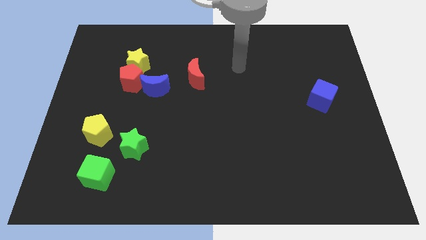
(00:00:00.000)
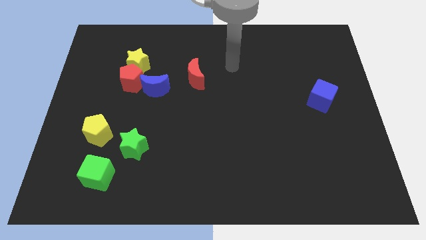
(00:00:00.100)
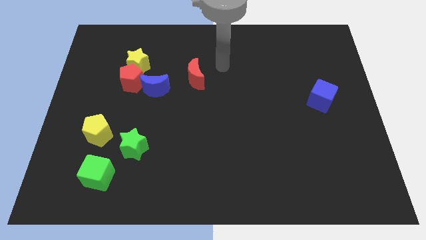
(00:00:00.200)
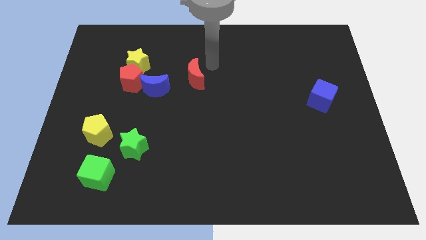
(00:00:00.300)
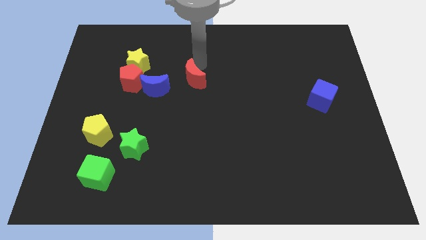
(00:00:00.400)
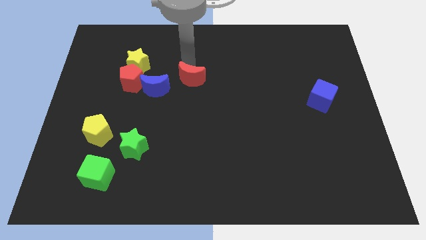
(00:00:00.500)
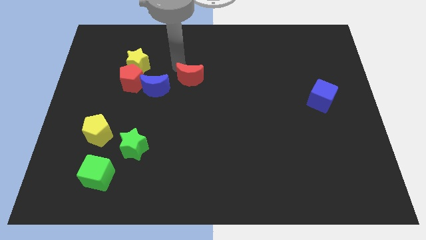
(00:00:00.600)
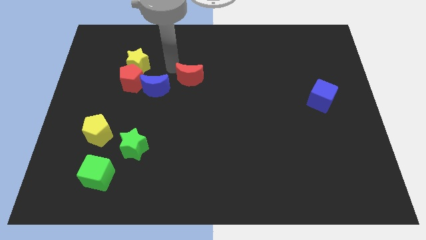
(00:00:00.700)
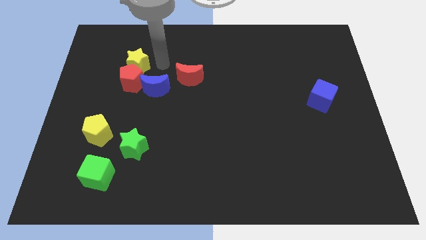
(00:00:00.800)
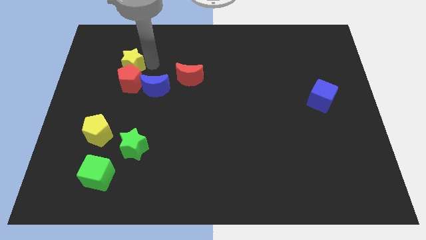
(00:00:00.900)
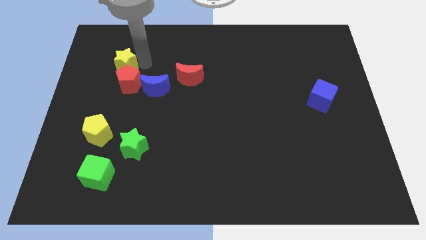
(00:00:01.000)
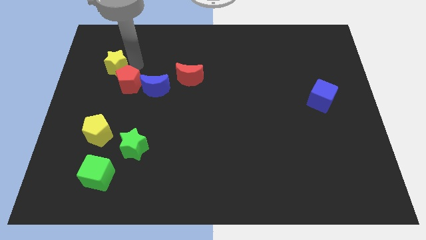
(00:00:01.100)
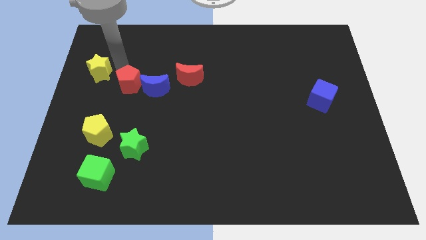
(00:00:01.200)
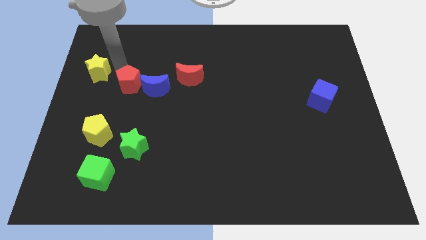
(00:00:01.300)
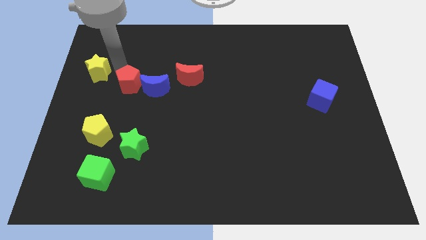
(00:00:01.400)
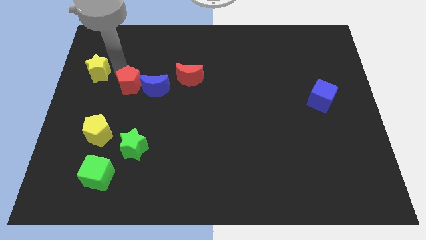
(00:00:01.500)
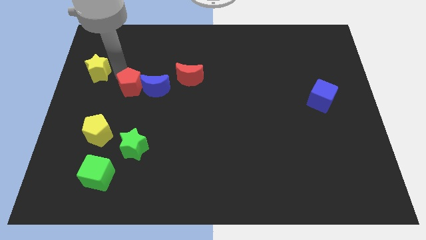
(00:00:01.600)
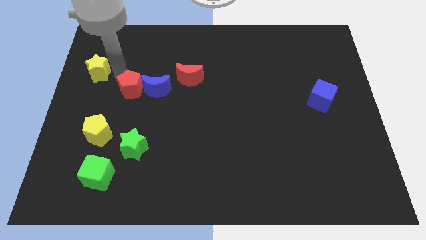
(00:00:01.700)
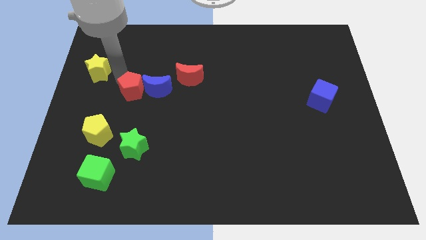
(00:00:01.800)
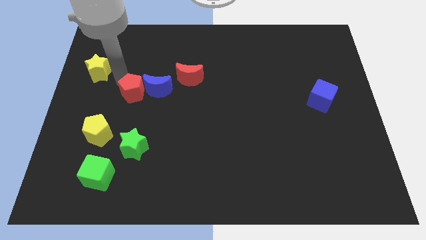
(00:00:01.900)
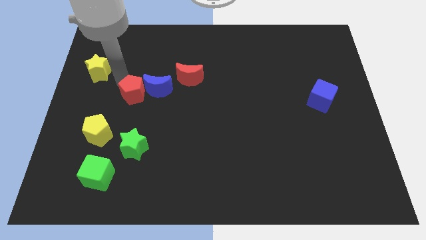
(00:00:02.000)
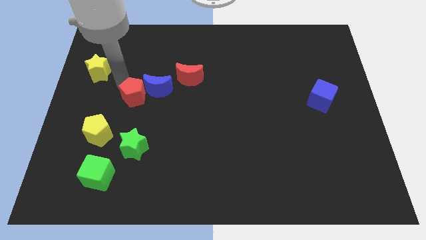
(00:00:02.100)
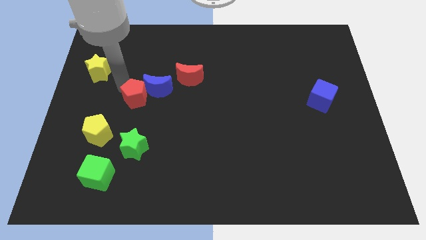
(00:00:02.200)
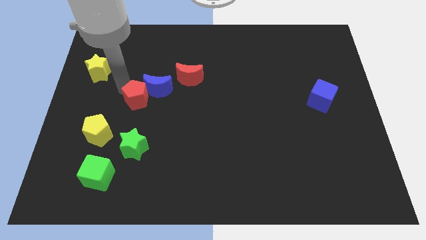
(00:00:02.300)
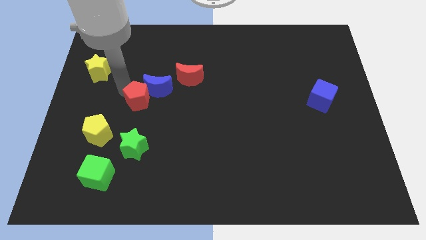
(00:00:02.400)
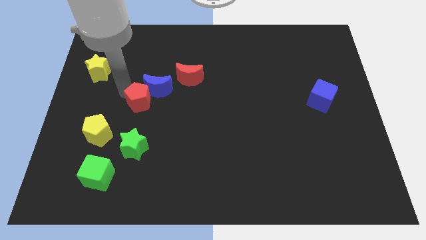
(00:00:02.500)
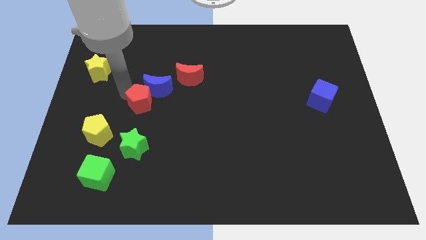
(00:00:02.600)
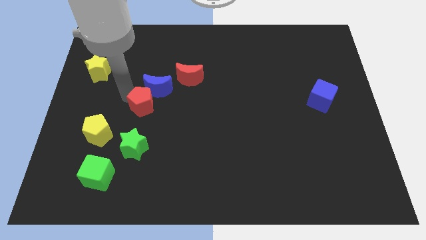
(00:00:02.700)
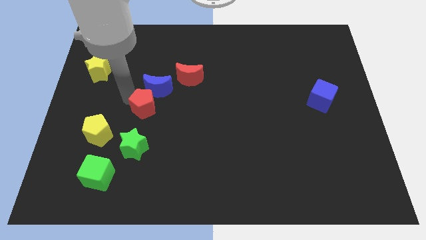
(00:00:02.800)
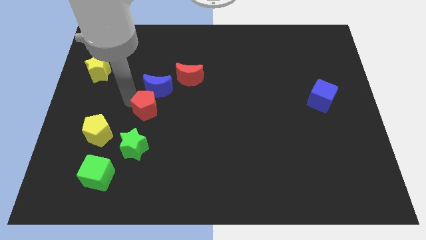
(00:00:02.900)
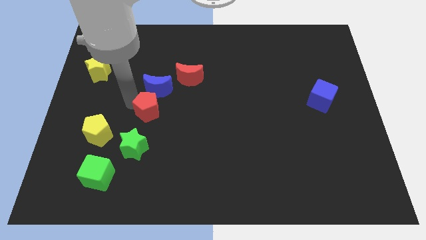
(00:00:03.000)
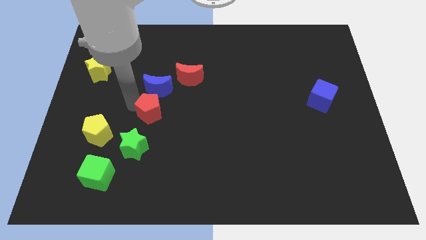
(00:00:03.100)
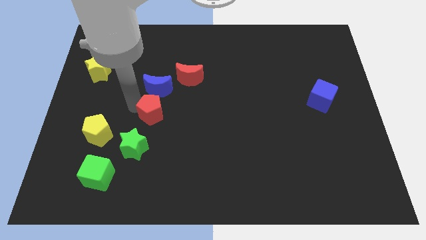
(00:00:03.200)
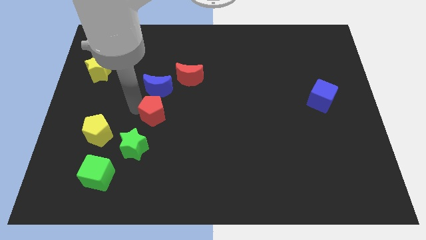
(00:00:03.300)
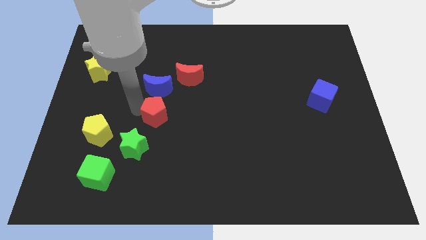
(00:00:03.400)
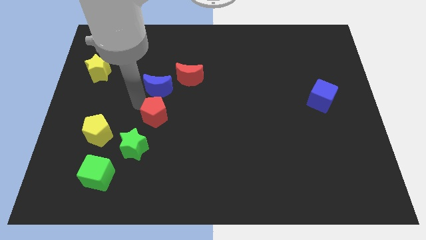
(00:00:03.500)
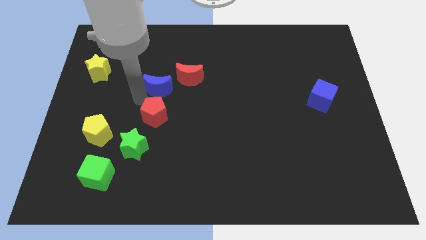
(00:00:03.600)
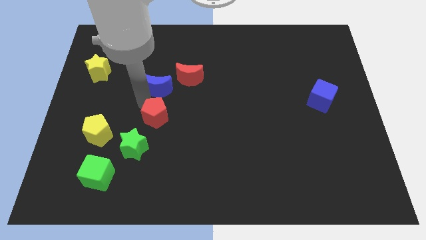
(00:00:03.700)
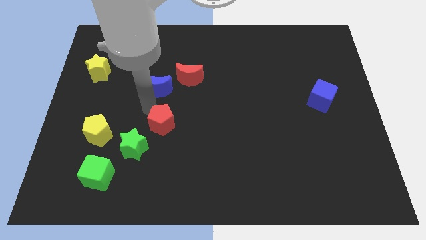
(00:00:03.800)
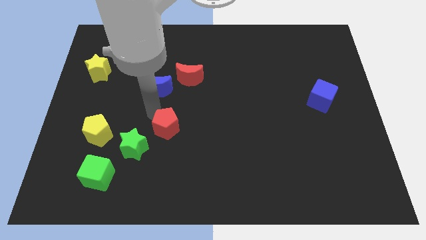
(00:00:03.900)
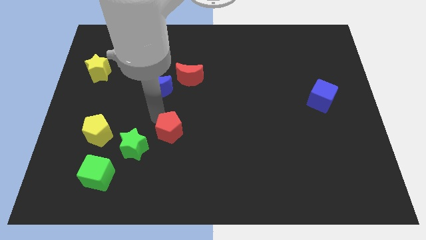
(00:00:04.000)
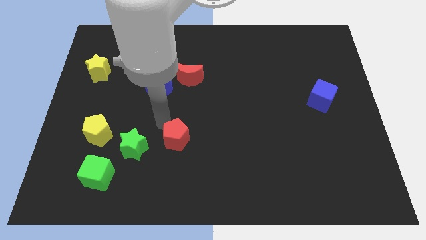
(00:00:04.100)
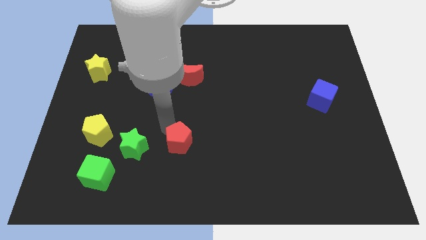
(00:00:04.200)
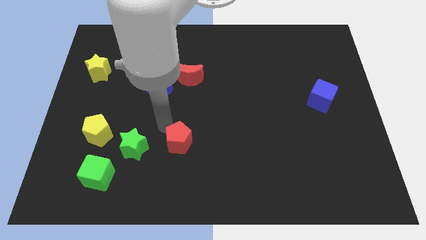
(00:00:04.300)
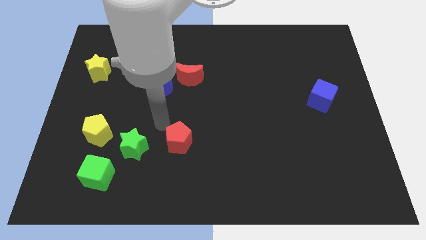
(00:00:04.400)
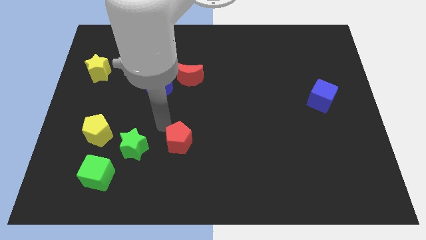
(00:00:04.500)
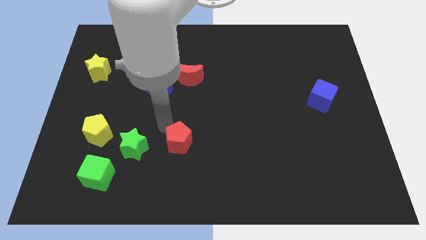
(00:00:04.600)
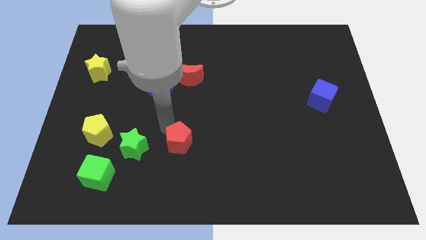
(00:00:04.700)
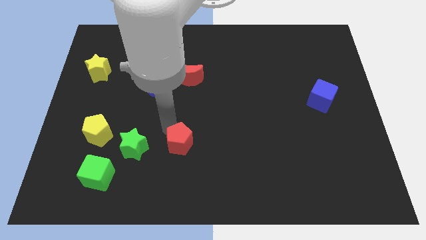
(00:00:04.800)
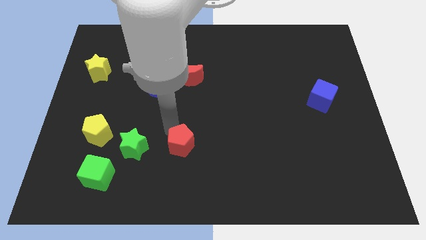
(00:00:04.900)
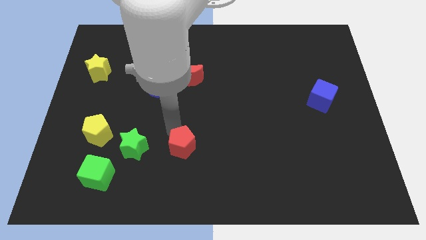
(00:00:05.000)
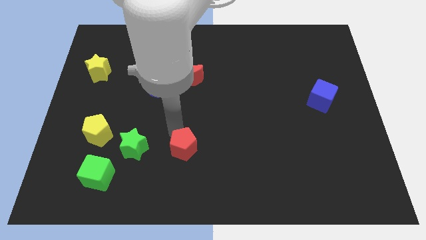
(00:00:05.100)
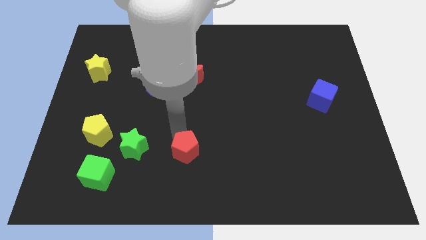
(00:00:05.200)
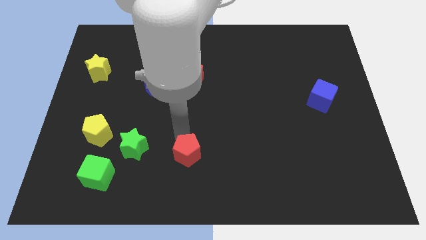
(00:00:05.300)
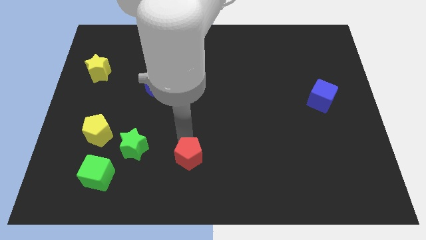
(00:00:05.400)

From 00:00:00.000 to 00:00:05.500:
slide the red pentagon to the bottom side

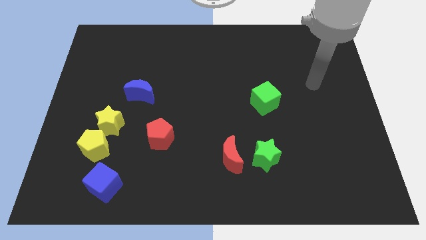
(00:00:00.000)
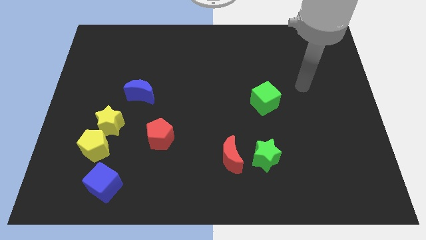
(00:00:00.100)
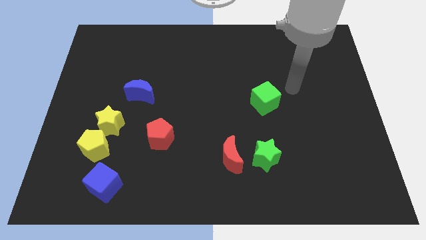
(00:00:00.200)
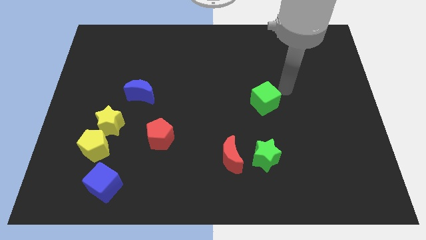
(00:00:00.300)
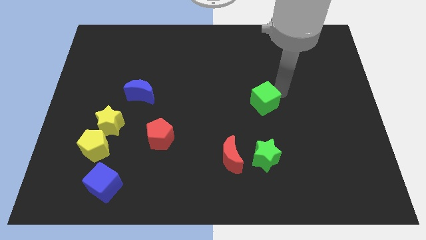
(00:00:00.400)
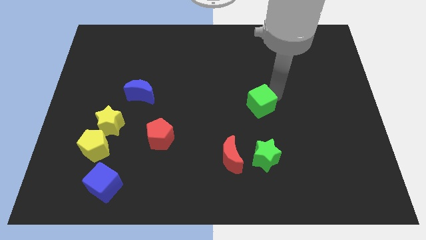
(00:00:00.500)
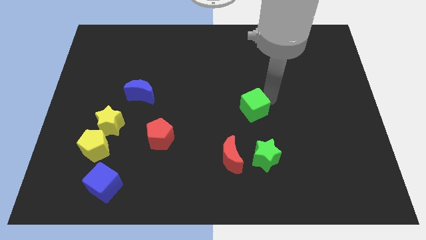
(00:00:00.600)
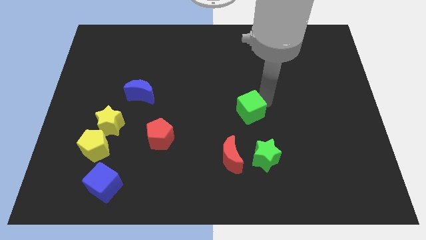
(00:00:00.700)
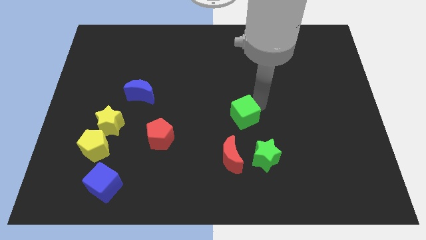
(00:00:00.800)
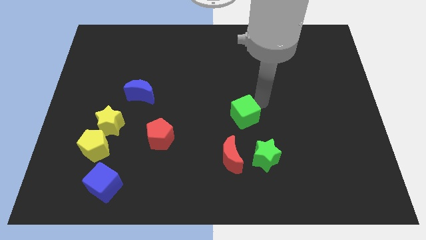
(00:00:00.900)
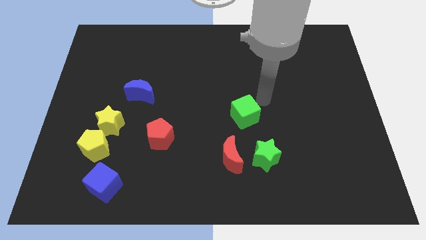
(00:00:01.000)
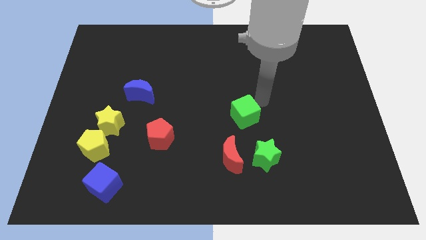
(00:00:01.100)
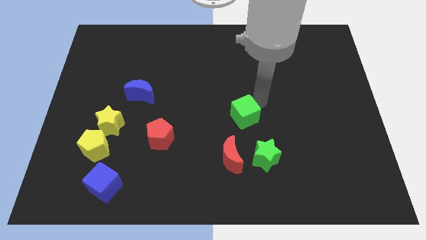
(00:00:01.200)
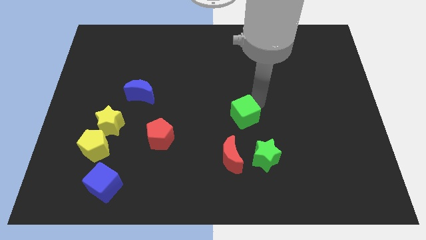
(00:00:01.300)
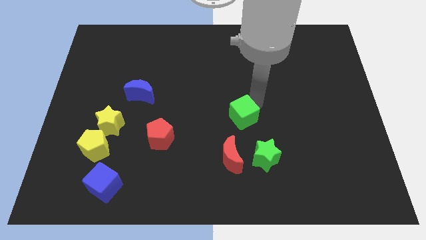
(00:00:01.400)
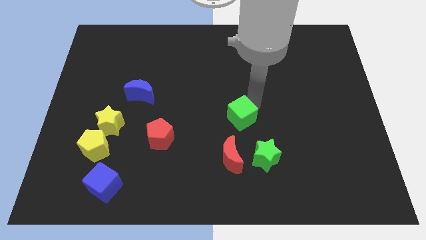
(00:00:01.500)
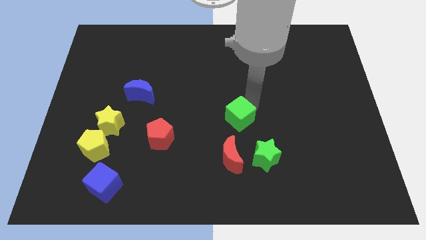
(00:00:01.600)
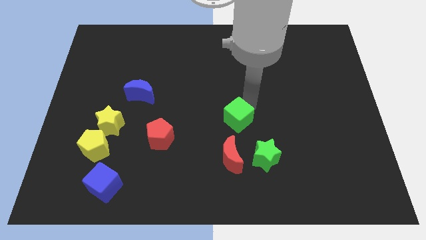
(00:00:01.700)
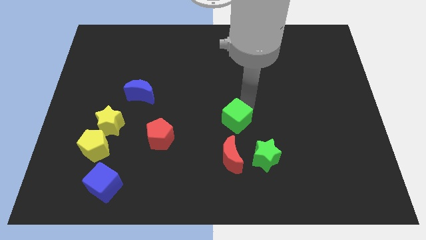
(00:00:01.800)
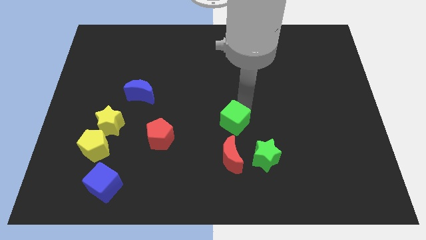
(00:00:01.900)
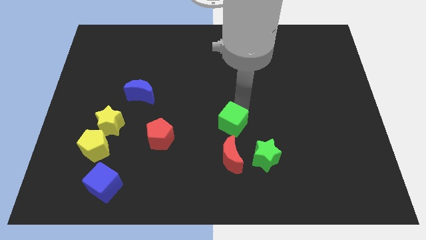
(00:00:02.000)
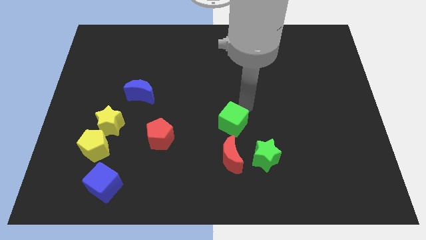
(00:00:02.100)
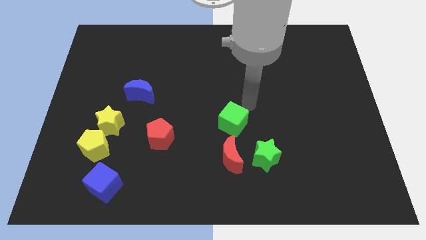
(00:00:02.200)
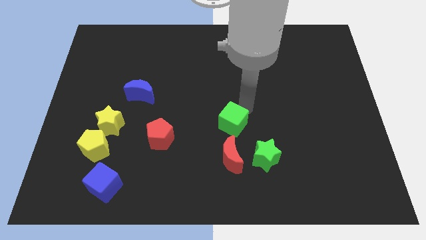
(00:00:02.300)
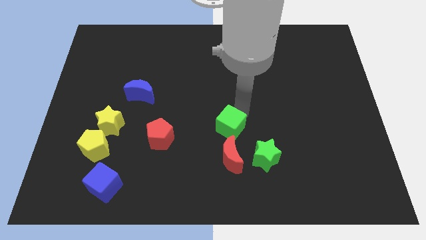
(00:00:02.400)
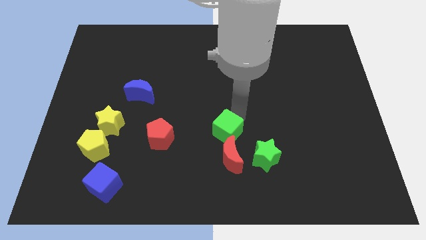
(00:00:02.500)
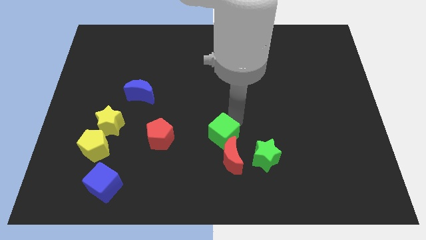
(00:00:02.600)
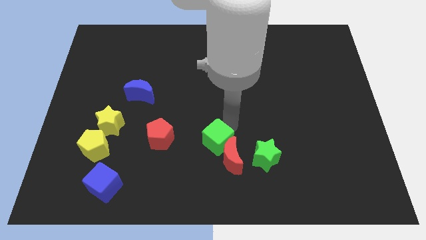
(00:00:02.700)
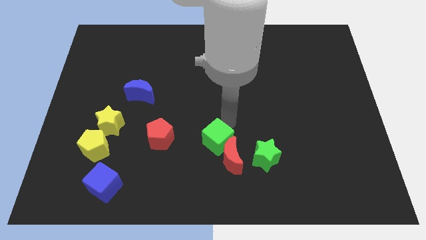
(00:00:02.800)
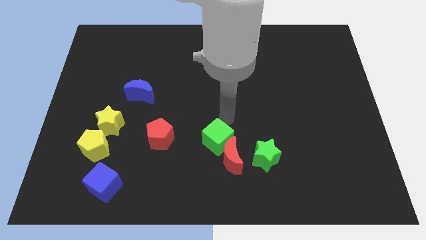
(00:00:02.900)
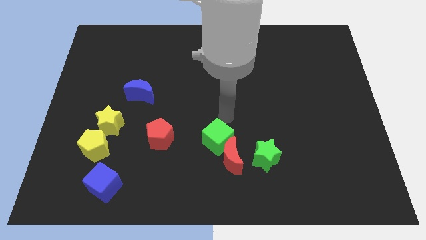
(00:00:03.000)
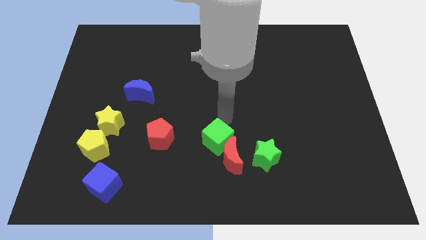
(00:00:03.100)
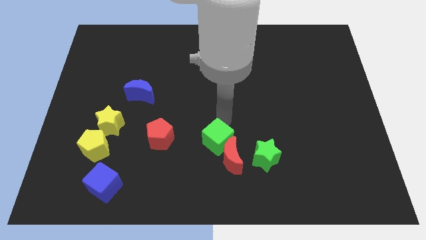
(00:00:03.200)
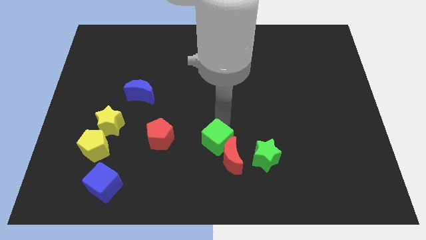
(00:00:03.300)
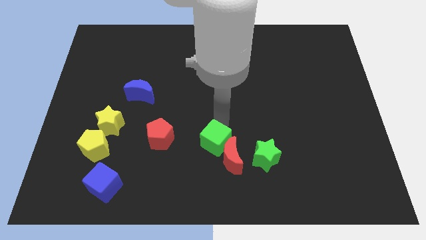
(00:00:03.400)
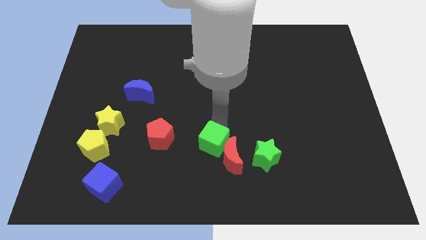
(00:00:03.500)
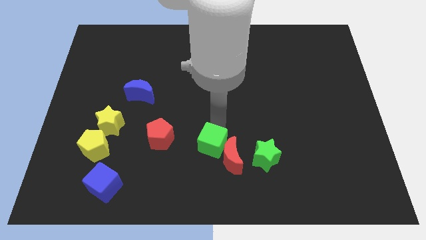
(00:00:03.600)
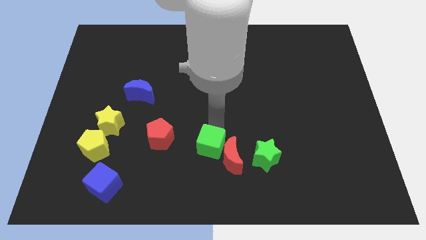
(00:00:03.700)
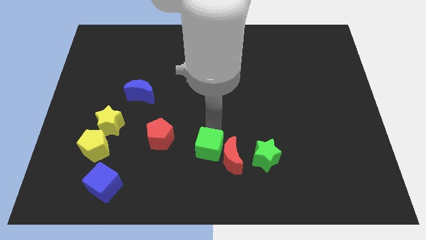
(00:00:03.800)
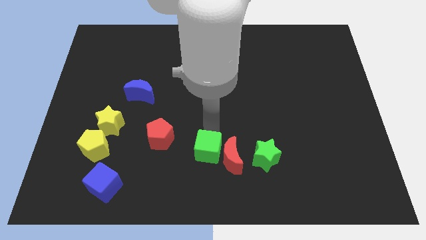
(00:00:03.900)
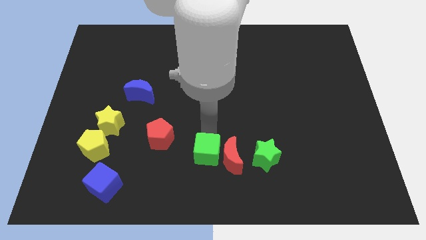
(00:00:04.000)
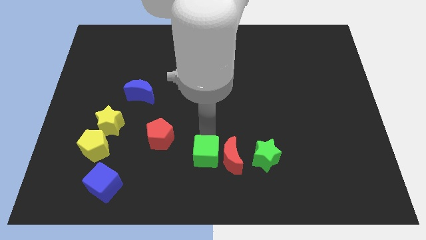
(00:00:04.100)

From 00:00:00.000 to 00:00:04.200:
slide the green cube to the bottom side
